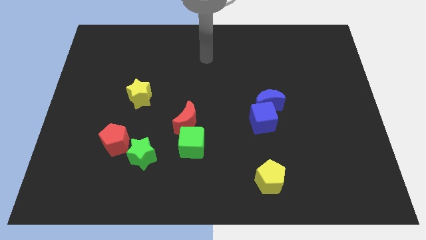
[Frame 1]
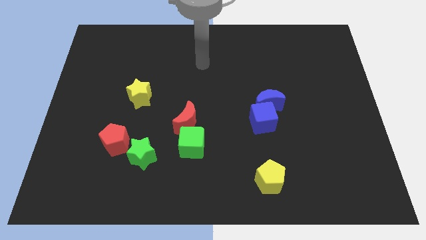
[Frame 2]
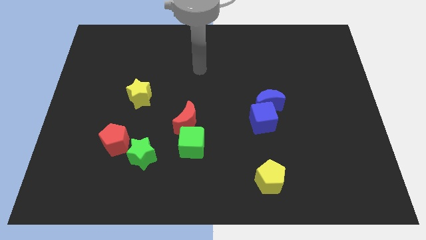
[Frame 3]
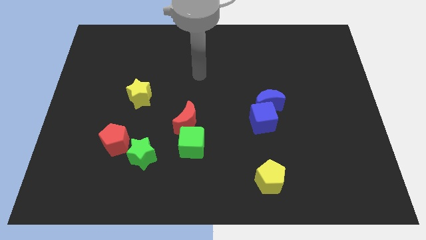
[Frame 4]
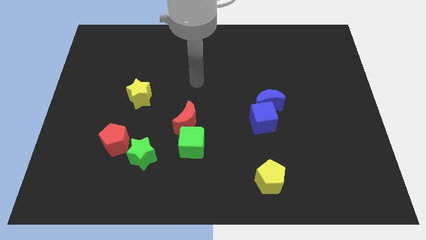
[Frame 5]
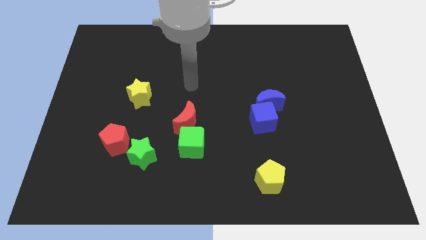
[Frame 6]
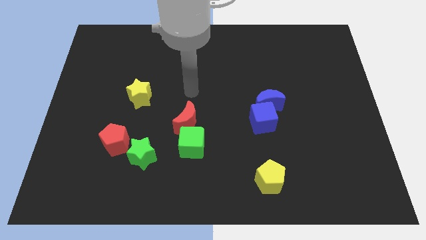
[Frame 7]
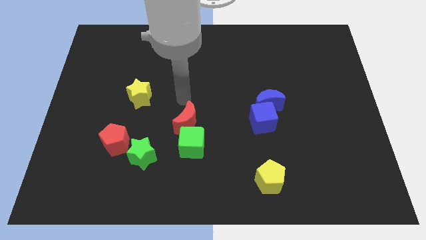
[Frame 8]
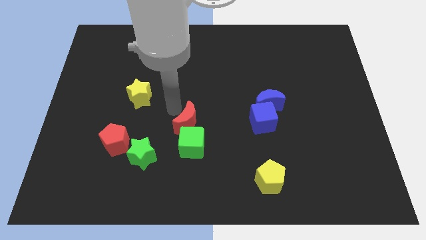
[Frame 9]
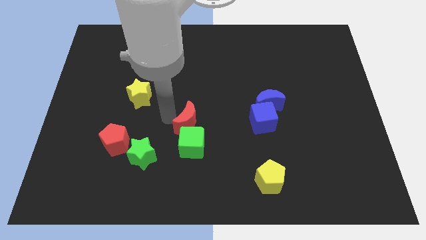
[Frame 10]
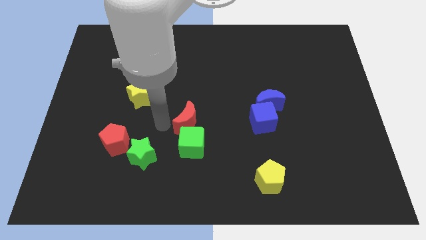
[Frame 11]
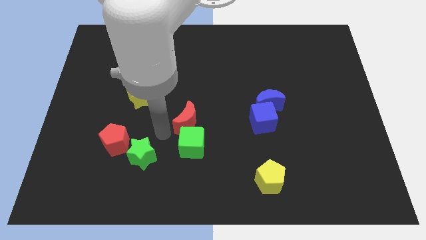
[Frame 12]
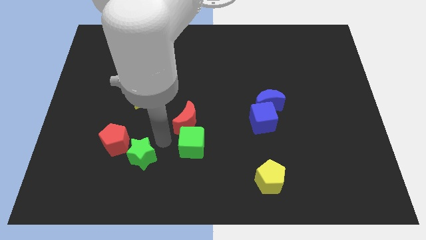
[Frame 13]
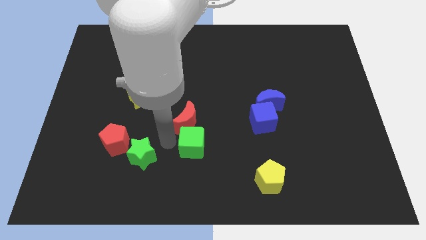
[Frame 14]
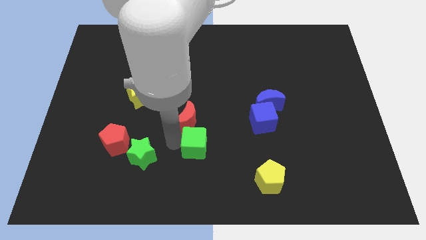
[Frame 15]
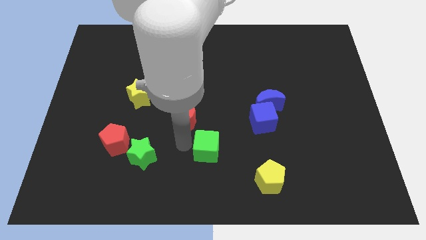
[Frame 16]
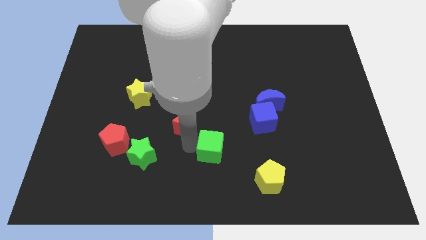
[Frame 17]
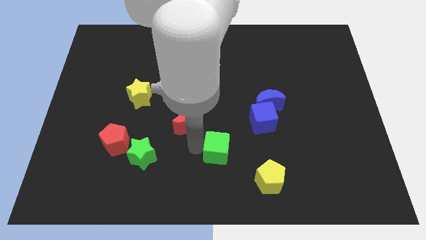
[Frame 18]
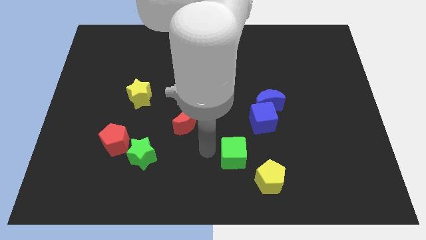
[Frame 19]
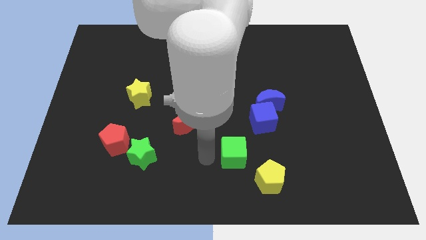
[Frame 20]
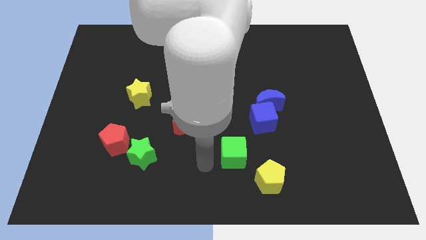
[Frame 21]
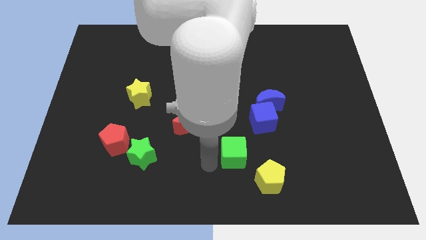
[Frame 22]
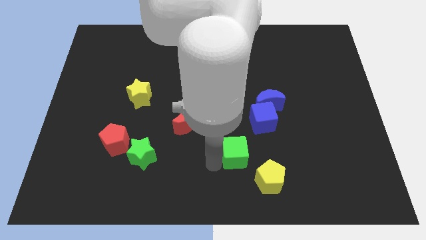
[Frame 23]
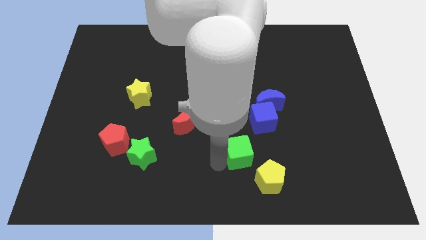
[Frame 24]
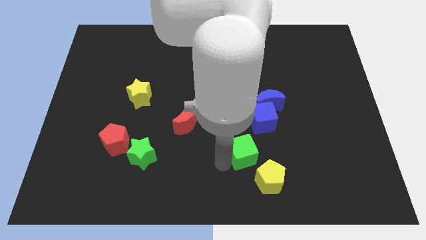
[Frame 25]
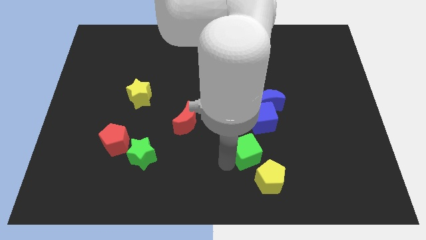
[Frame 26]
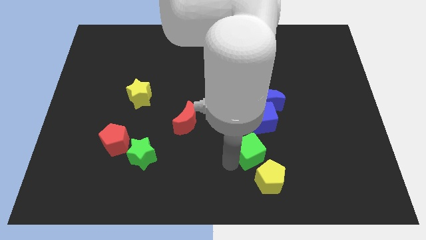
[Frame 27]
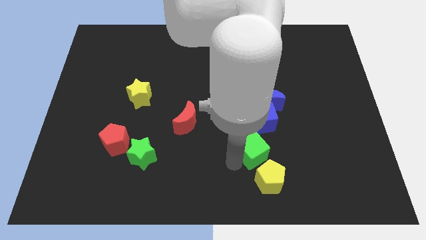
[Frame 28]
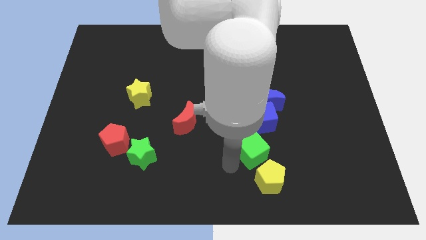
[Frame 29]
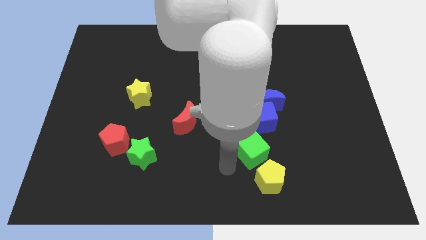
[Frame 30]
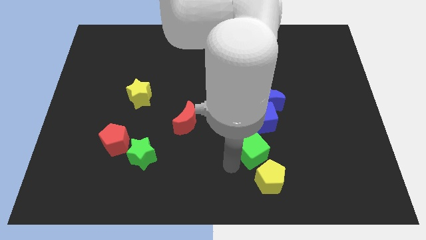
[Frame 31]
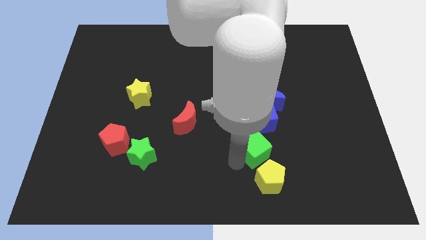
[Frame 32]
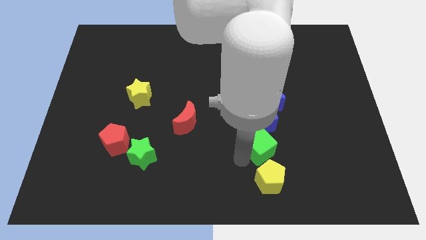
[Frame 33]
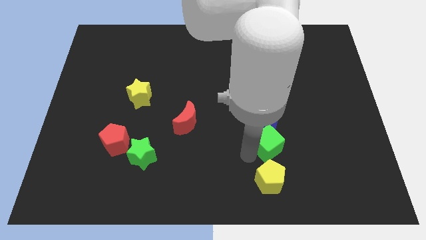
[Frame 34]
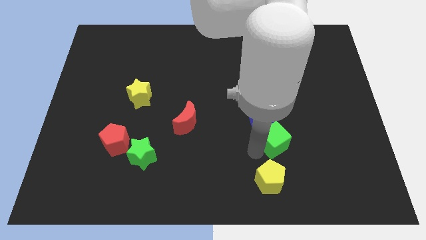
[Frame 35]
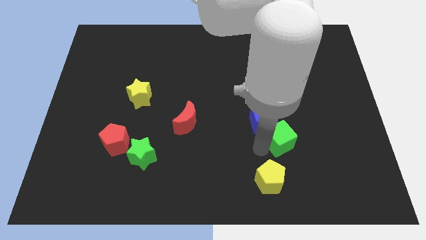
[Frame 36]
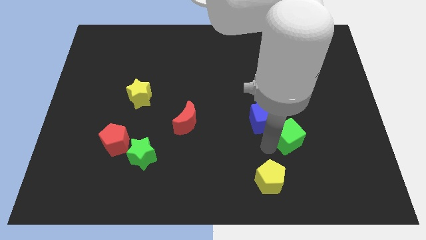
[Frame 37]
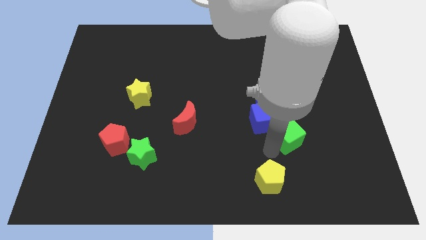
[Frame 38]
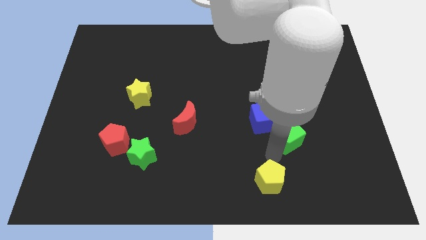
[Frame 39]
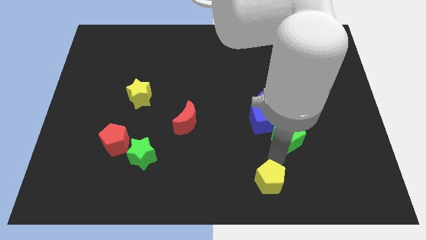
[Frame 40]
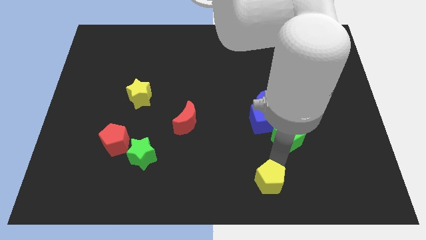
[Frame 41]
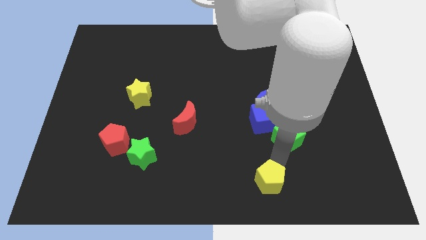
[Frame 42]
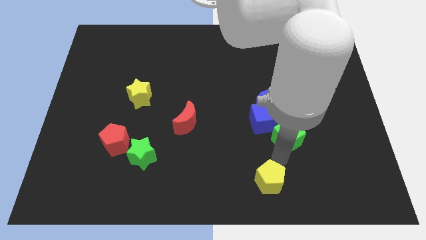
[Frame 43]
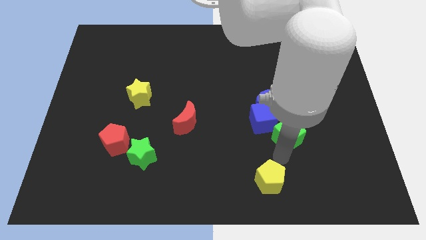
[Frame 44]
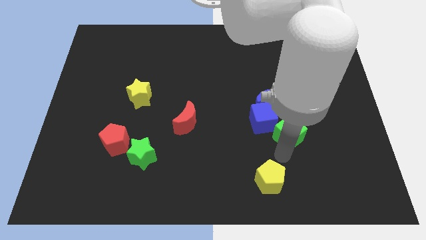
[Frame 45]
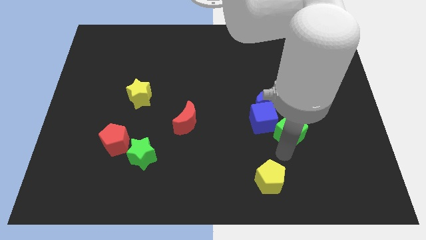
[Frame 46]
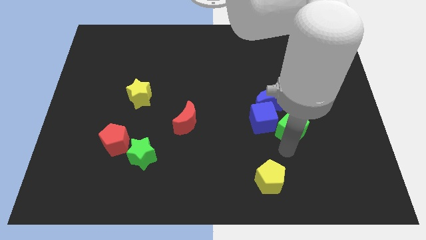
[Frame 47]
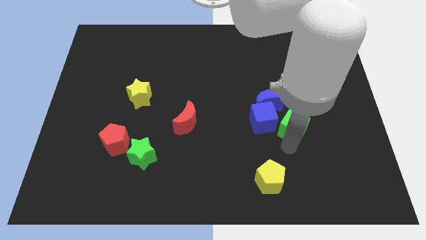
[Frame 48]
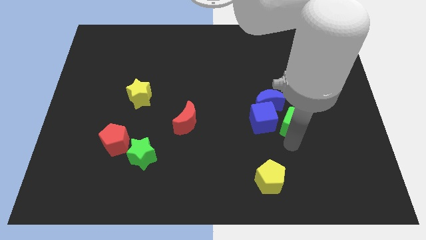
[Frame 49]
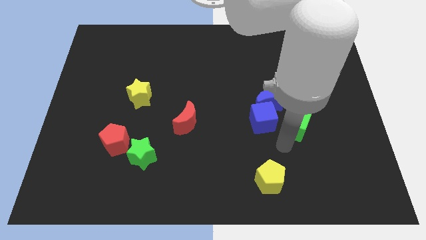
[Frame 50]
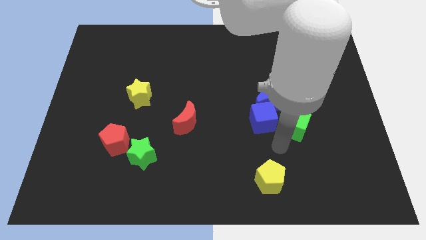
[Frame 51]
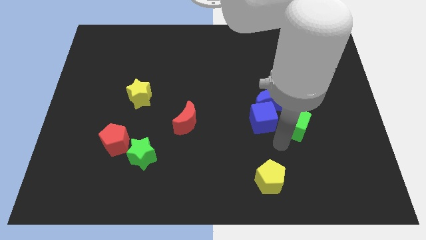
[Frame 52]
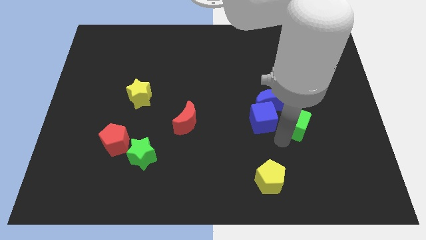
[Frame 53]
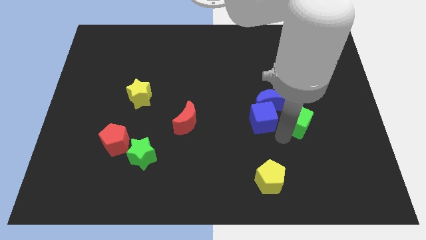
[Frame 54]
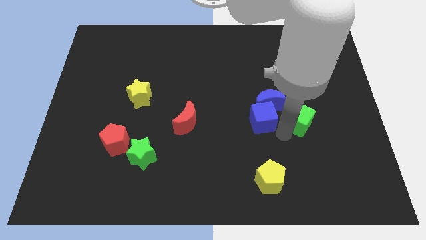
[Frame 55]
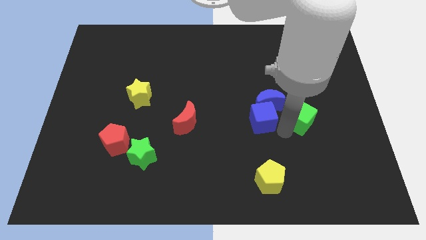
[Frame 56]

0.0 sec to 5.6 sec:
slide the green cube just right of the blue moon

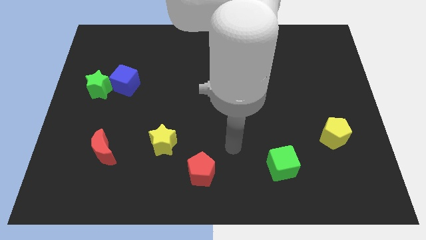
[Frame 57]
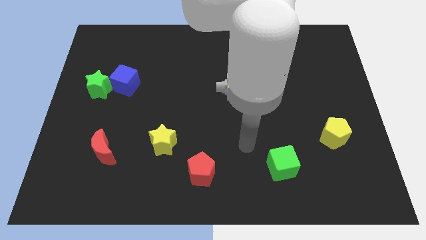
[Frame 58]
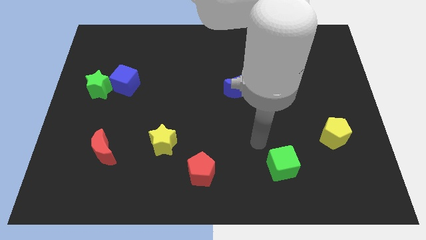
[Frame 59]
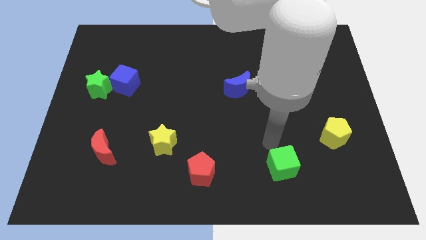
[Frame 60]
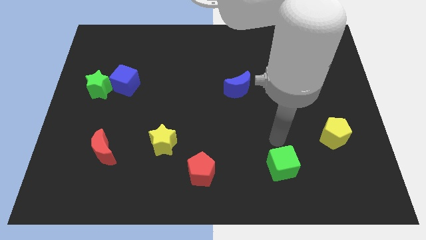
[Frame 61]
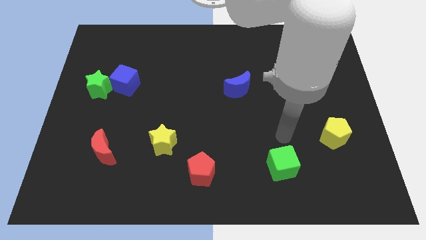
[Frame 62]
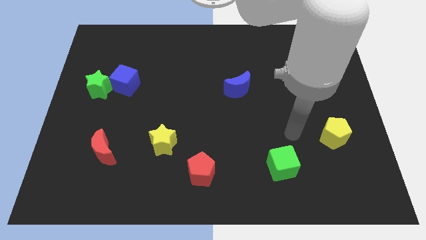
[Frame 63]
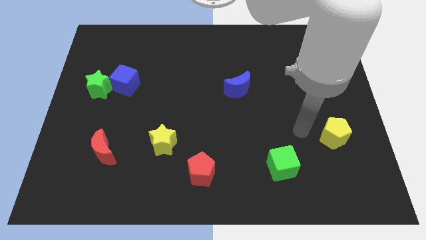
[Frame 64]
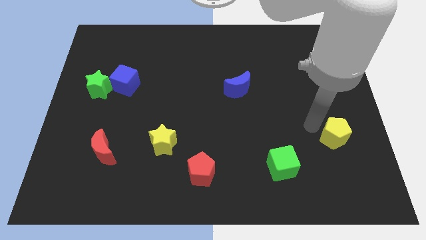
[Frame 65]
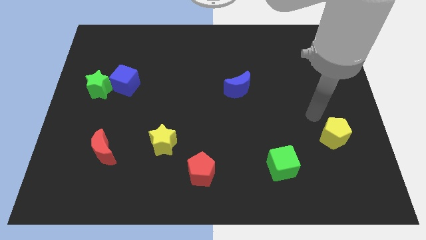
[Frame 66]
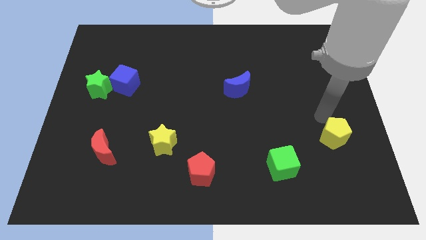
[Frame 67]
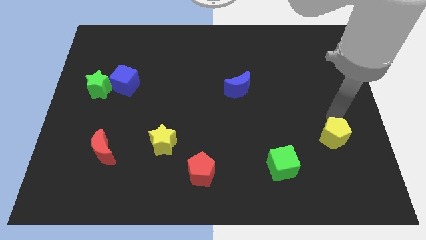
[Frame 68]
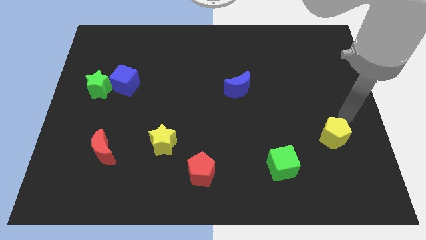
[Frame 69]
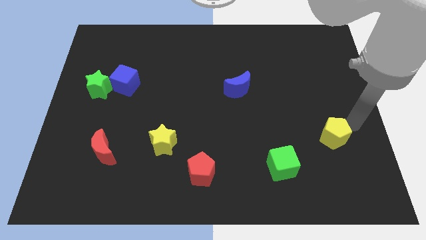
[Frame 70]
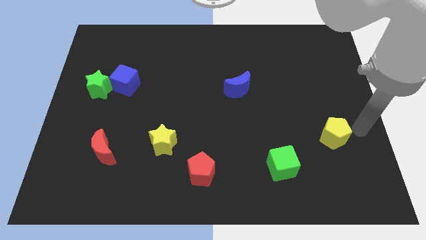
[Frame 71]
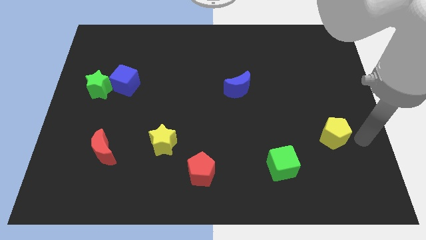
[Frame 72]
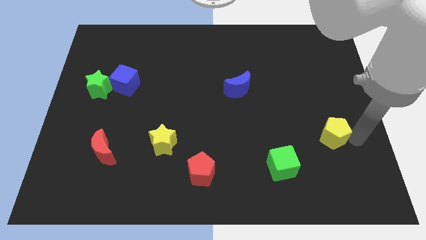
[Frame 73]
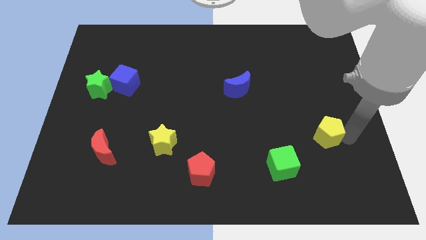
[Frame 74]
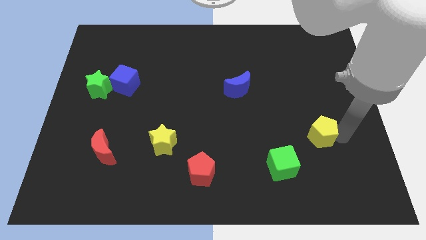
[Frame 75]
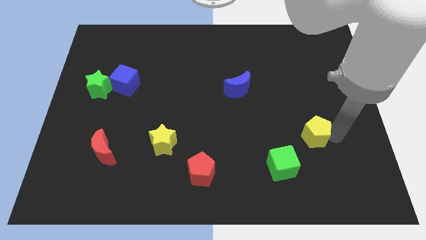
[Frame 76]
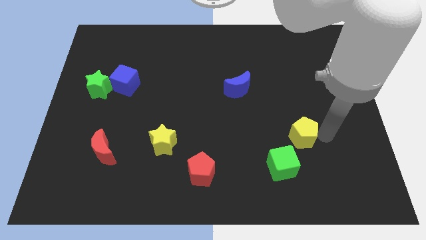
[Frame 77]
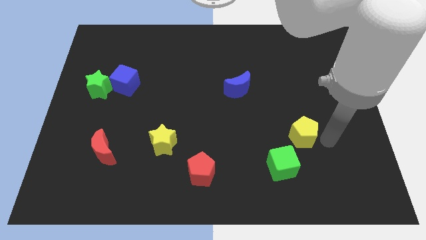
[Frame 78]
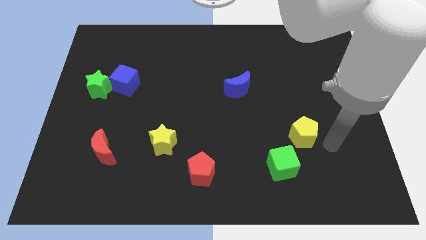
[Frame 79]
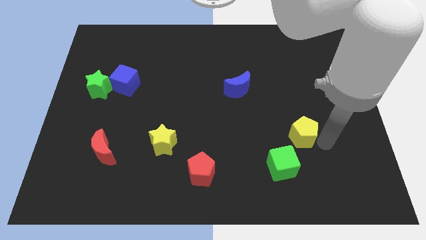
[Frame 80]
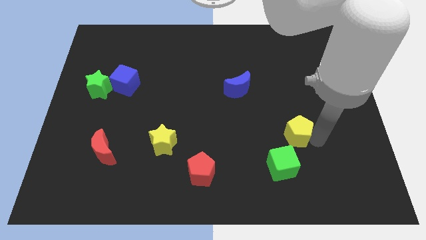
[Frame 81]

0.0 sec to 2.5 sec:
slide the yellow pentagon above the green cube
